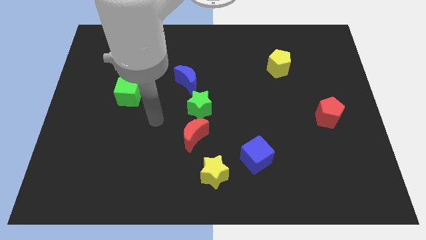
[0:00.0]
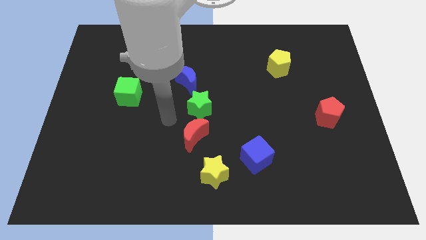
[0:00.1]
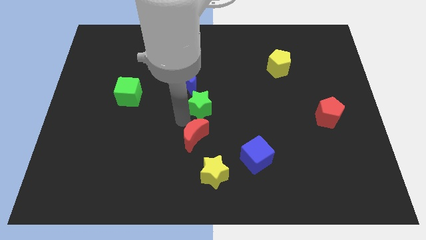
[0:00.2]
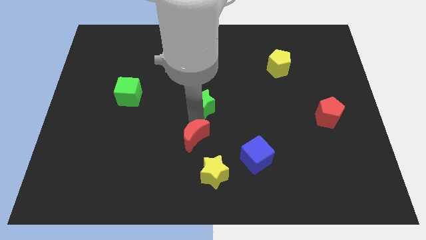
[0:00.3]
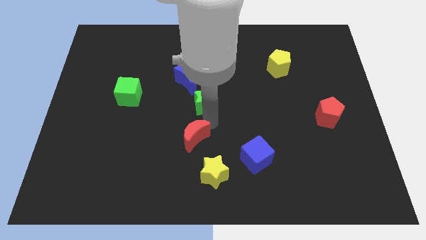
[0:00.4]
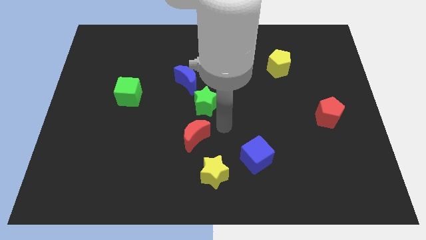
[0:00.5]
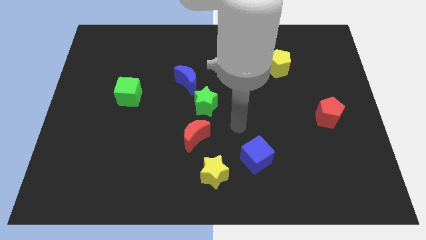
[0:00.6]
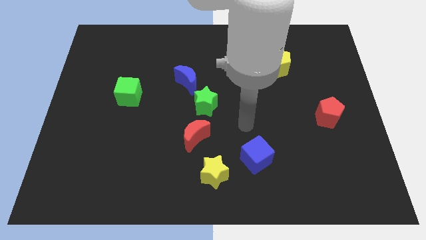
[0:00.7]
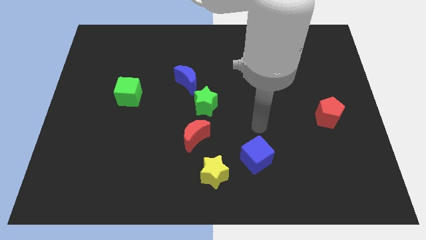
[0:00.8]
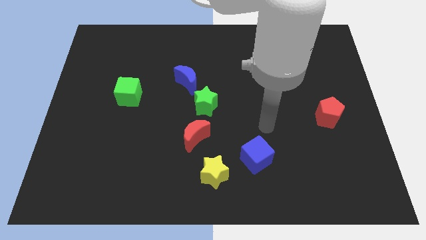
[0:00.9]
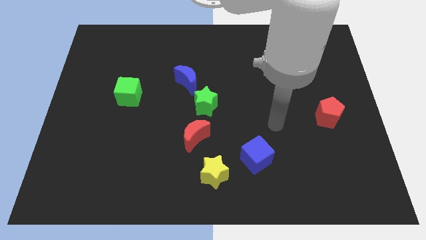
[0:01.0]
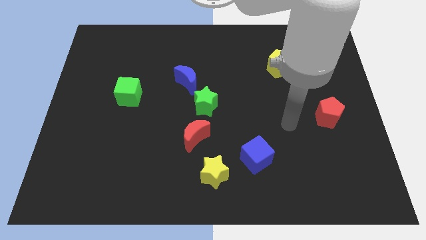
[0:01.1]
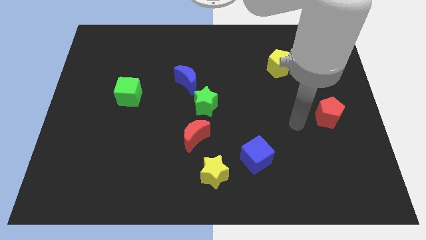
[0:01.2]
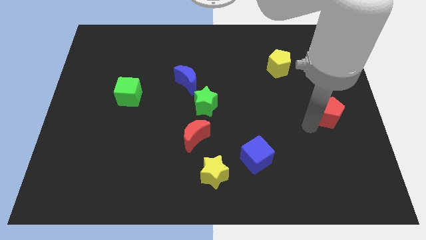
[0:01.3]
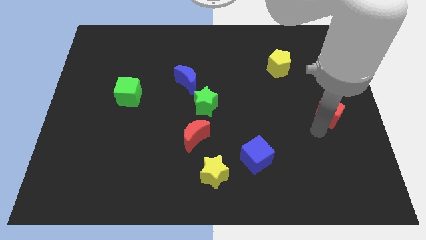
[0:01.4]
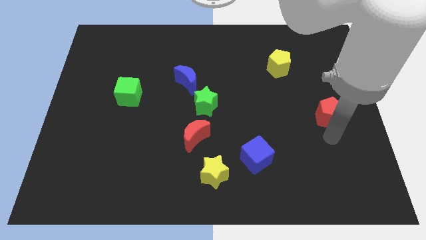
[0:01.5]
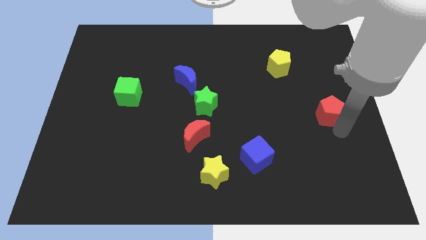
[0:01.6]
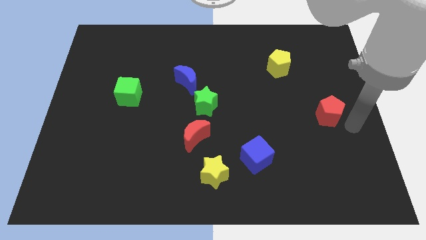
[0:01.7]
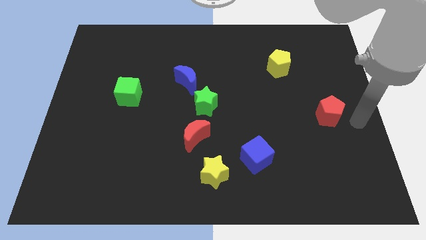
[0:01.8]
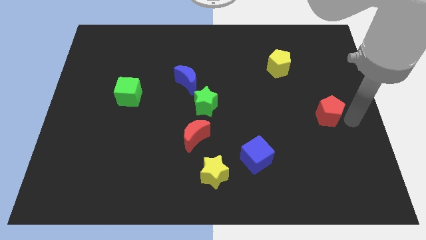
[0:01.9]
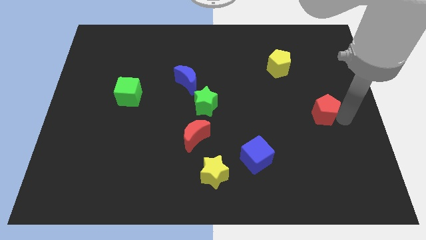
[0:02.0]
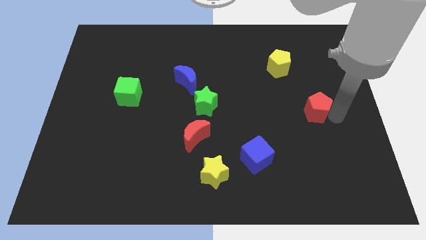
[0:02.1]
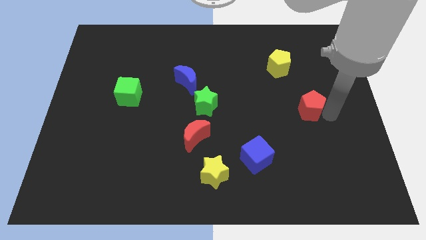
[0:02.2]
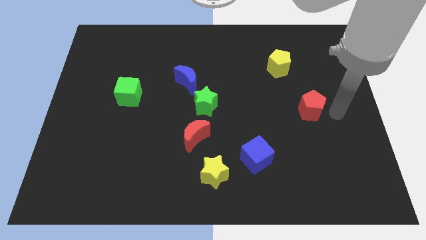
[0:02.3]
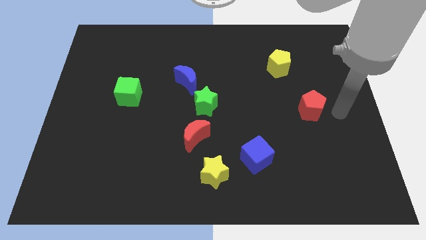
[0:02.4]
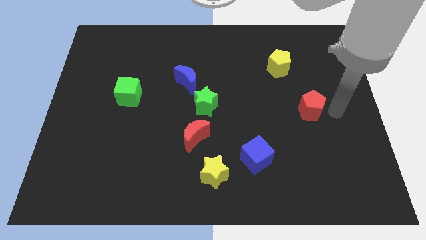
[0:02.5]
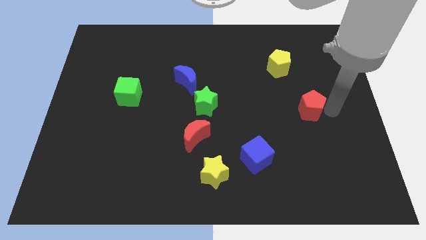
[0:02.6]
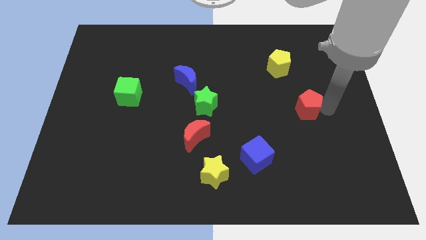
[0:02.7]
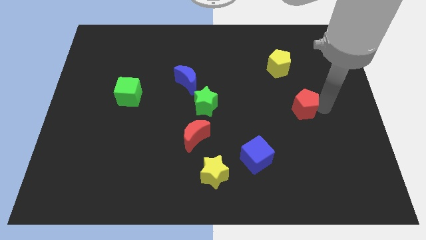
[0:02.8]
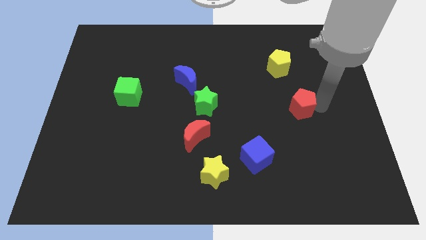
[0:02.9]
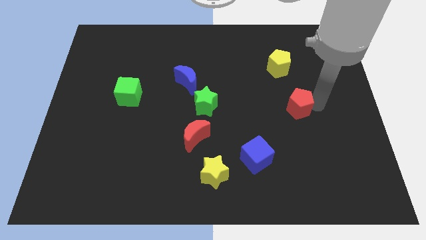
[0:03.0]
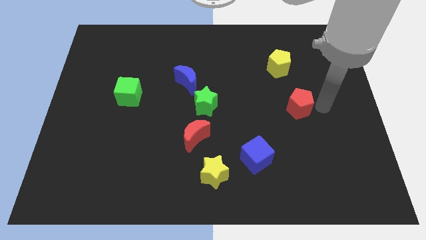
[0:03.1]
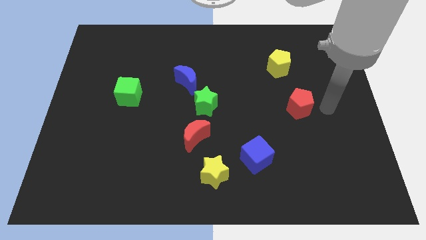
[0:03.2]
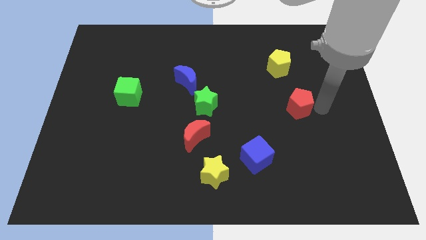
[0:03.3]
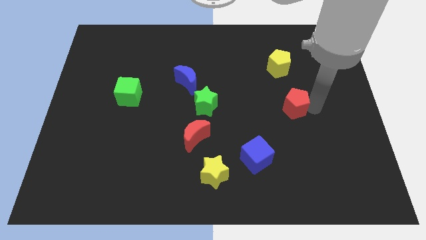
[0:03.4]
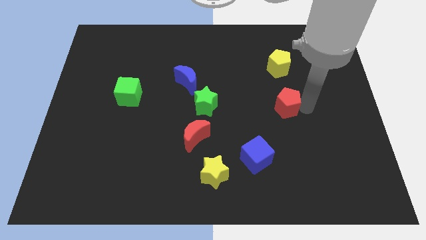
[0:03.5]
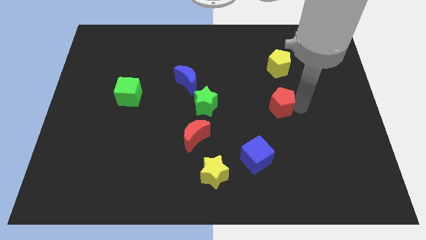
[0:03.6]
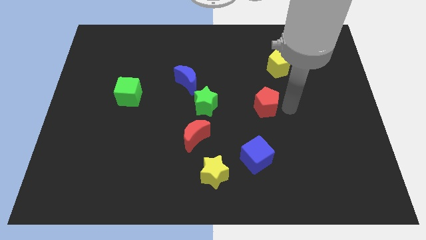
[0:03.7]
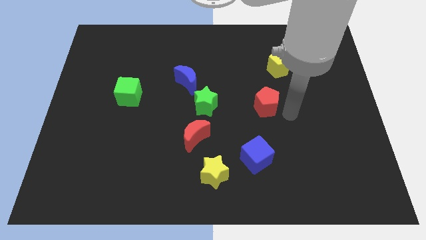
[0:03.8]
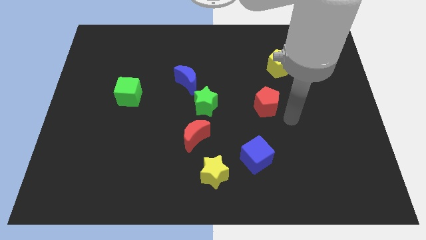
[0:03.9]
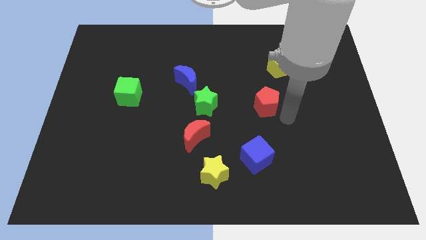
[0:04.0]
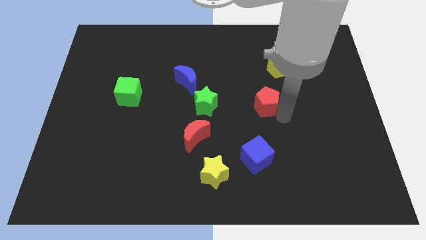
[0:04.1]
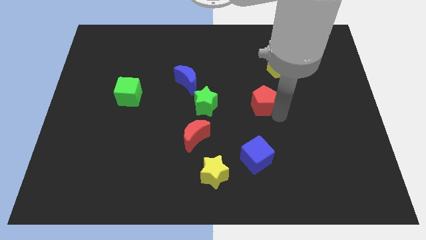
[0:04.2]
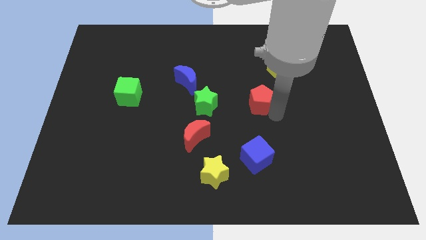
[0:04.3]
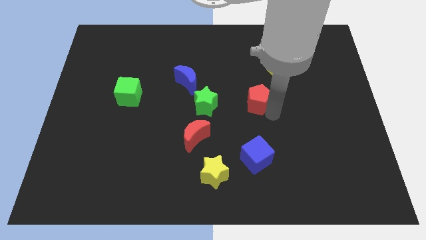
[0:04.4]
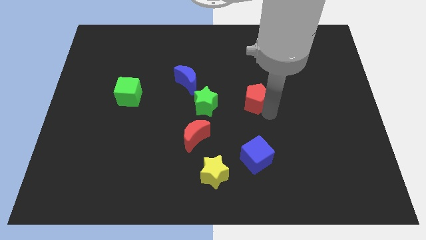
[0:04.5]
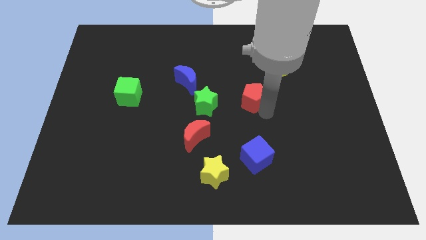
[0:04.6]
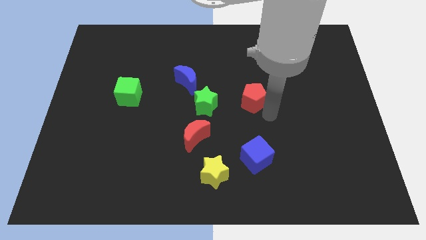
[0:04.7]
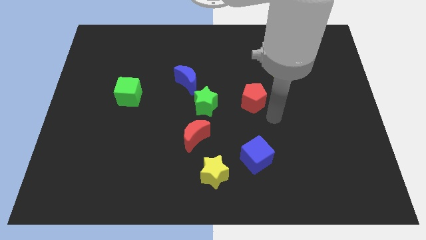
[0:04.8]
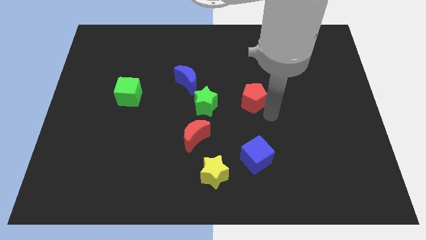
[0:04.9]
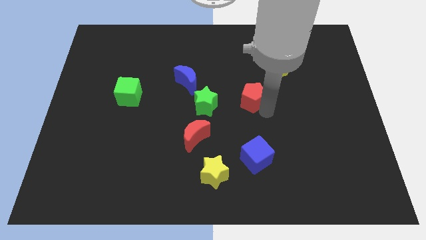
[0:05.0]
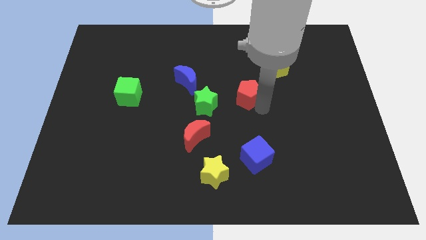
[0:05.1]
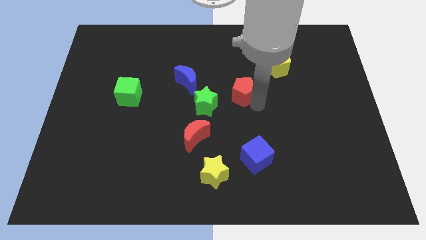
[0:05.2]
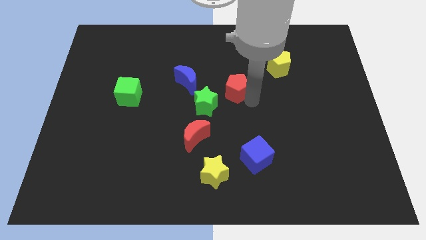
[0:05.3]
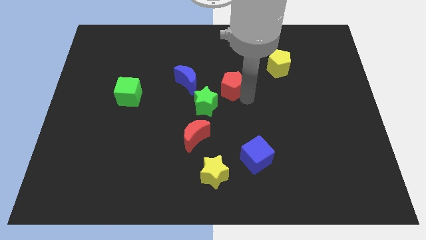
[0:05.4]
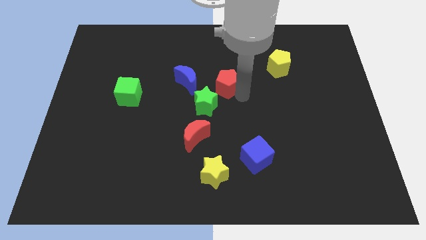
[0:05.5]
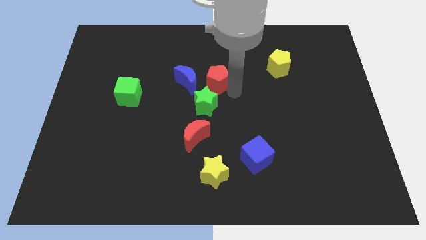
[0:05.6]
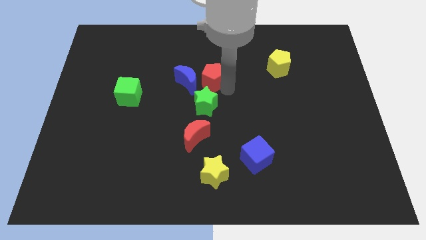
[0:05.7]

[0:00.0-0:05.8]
push the red pentagon to the top right side of the blue moon

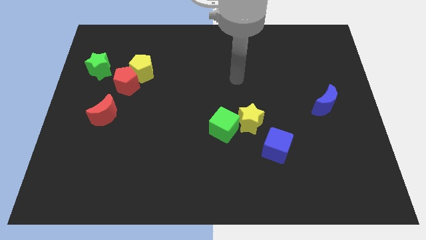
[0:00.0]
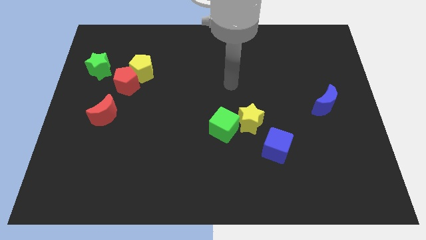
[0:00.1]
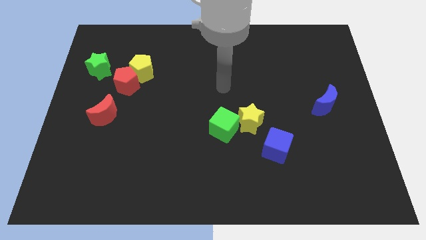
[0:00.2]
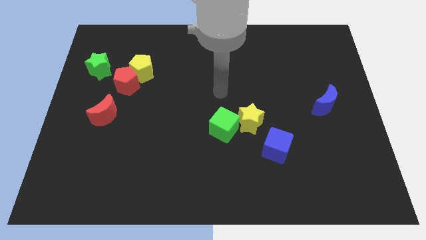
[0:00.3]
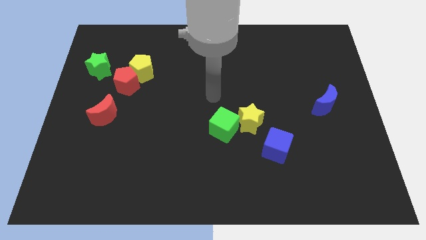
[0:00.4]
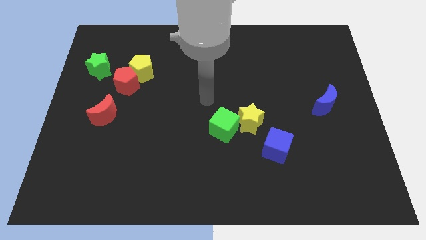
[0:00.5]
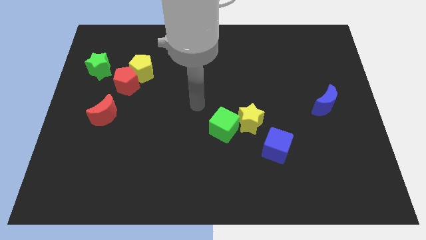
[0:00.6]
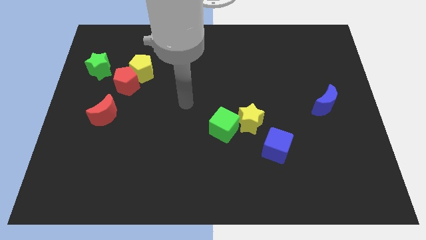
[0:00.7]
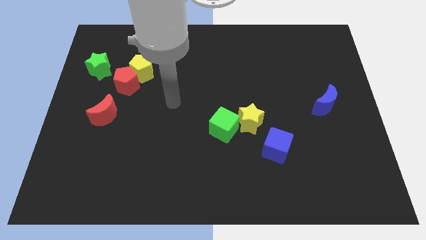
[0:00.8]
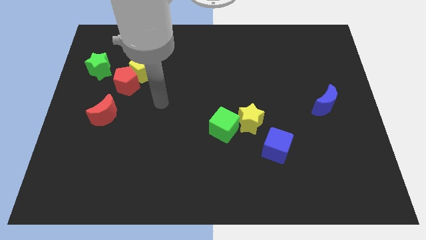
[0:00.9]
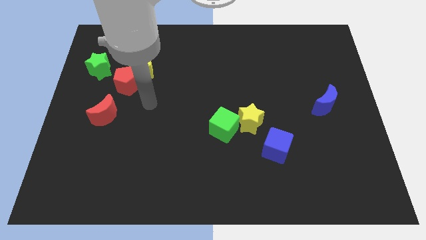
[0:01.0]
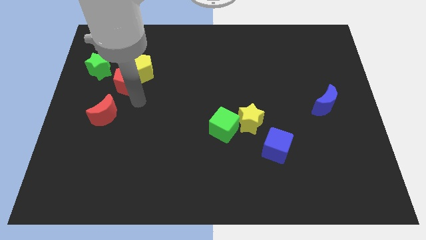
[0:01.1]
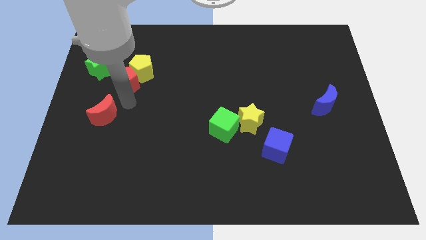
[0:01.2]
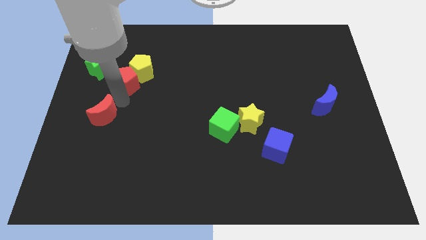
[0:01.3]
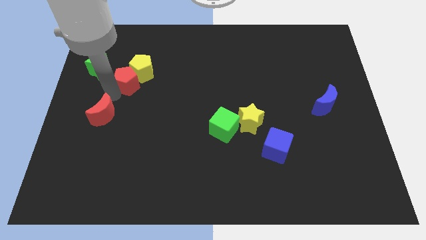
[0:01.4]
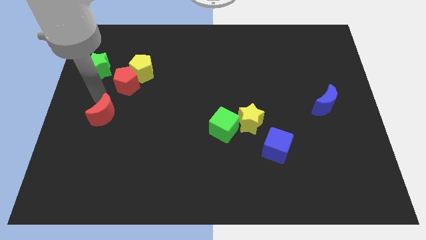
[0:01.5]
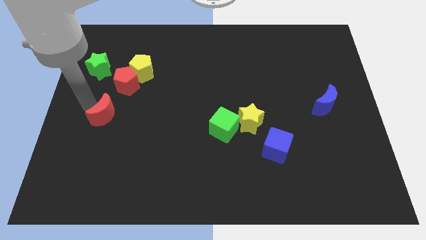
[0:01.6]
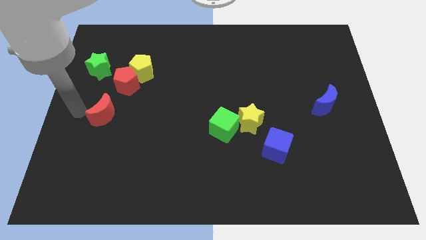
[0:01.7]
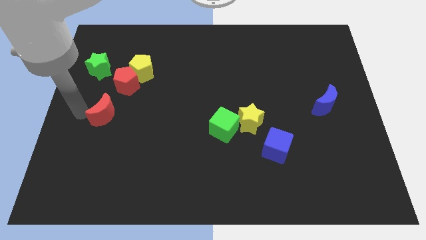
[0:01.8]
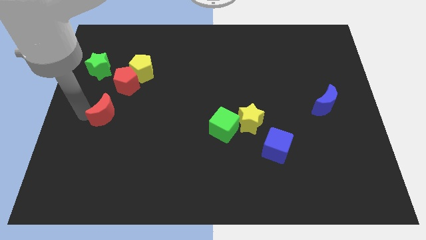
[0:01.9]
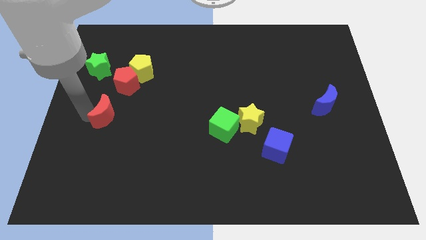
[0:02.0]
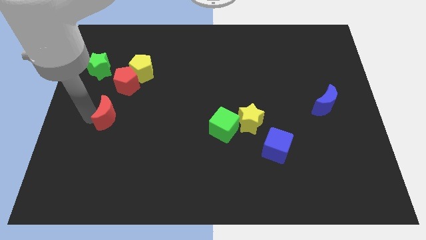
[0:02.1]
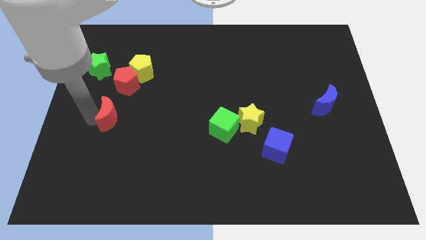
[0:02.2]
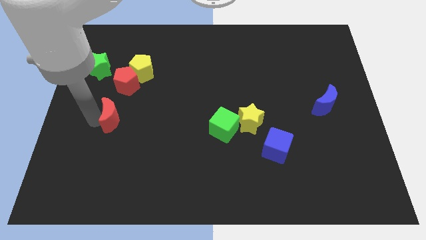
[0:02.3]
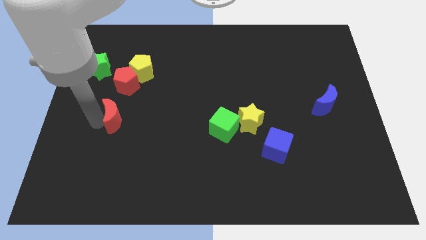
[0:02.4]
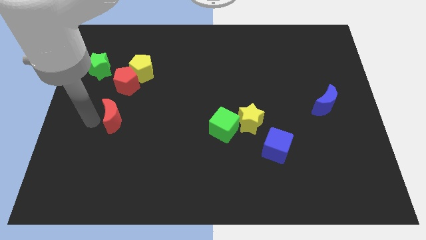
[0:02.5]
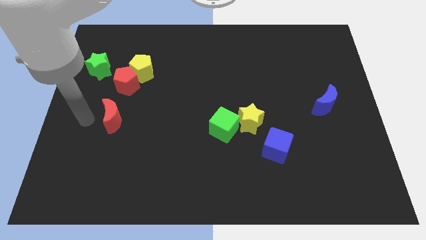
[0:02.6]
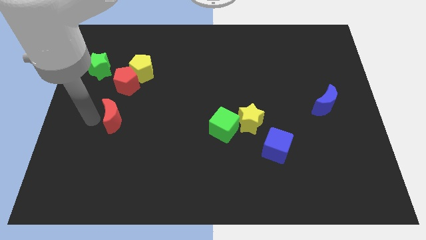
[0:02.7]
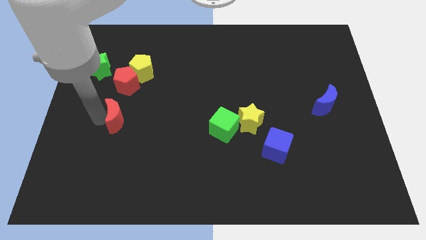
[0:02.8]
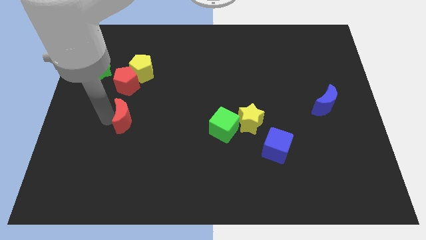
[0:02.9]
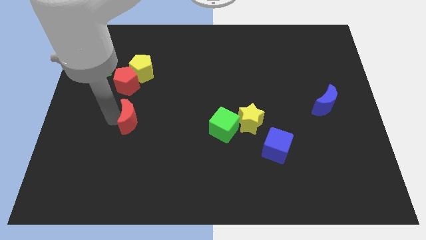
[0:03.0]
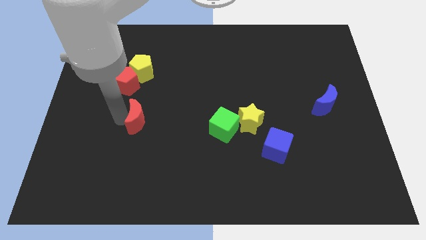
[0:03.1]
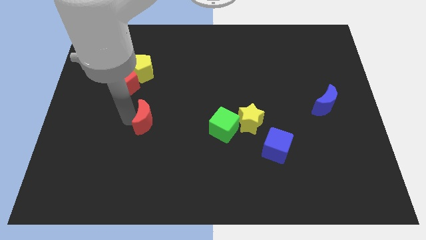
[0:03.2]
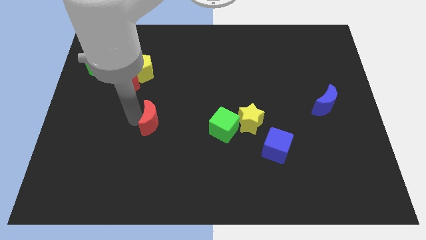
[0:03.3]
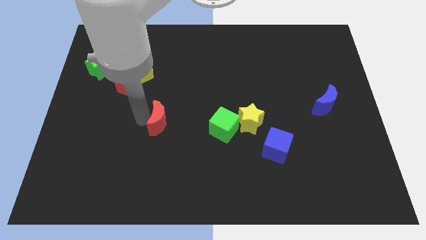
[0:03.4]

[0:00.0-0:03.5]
slide the red moon to the left of the green cube
